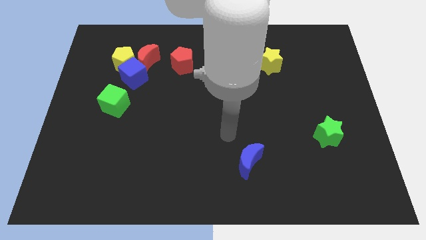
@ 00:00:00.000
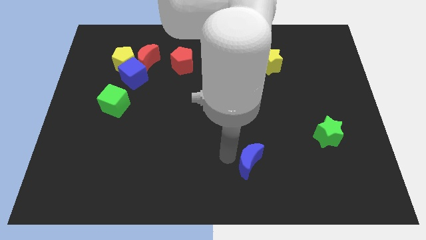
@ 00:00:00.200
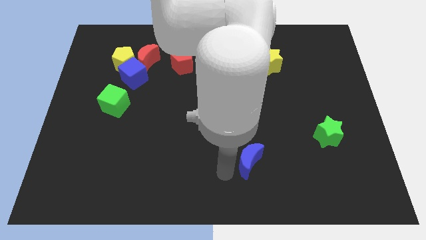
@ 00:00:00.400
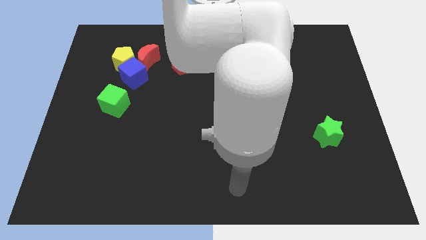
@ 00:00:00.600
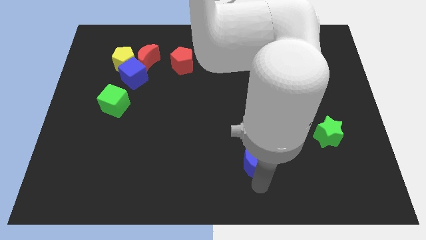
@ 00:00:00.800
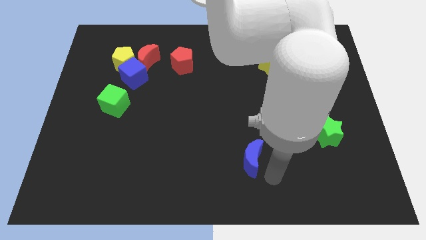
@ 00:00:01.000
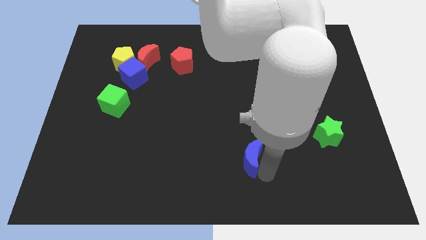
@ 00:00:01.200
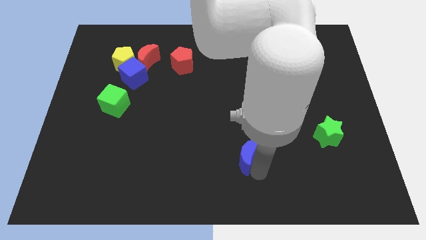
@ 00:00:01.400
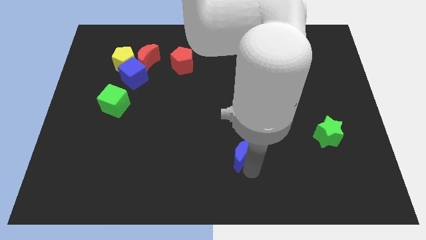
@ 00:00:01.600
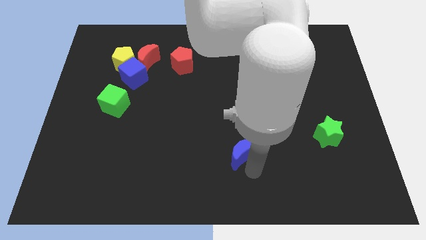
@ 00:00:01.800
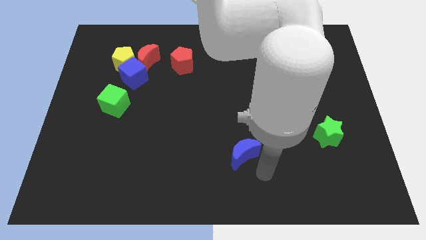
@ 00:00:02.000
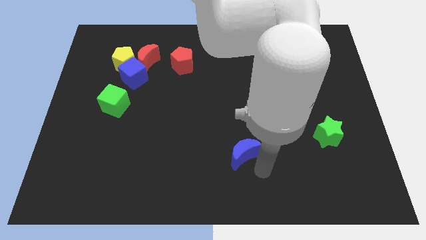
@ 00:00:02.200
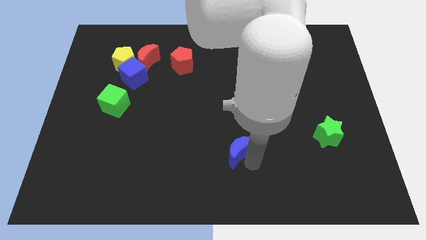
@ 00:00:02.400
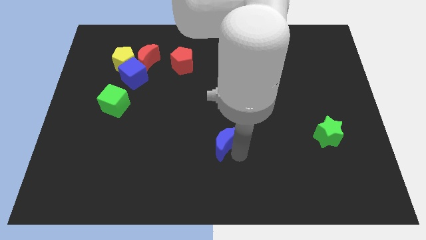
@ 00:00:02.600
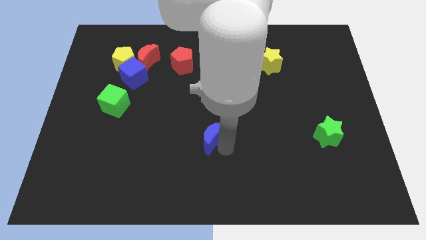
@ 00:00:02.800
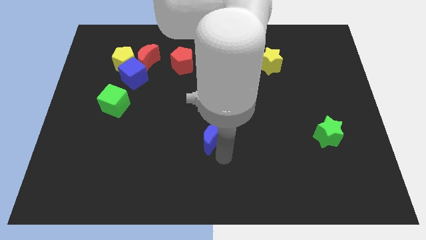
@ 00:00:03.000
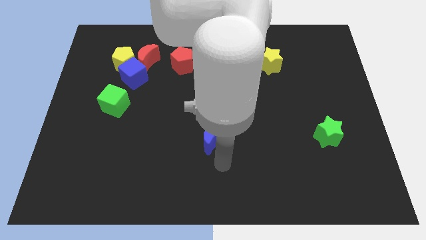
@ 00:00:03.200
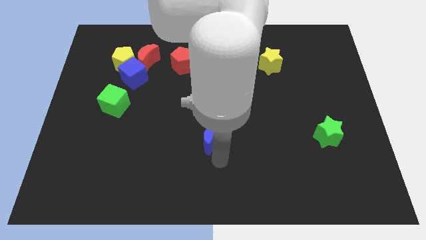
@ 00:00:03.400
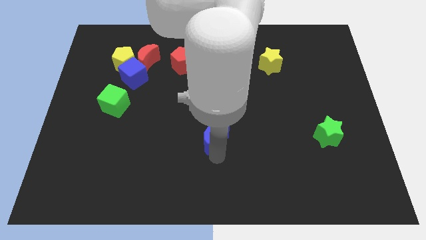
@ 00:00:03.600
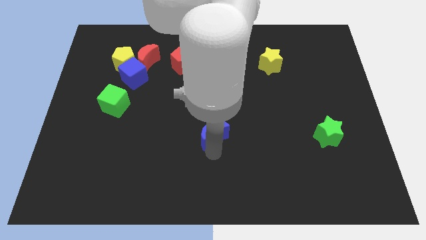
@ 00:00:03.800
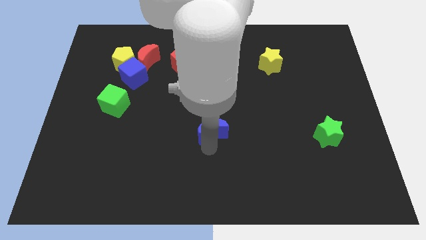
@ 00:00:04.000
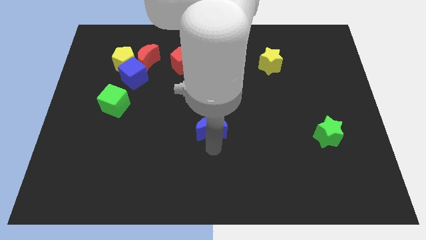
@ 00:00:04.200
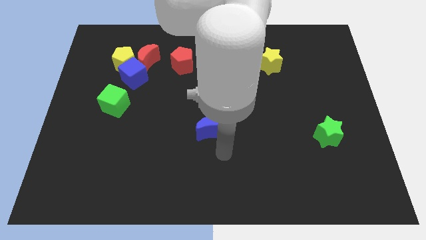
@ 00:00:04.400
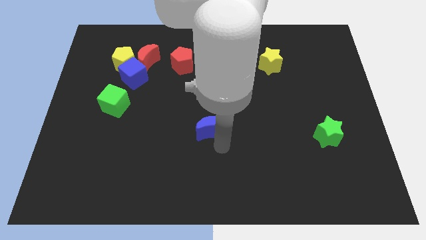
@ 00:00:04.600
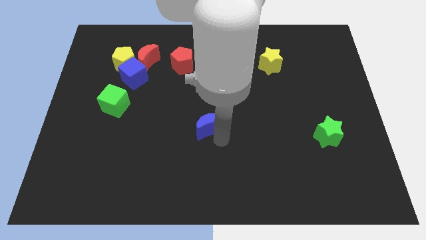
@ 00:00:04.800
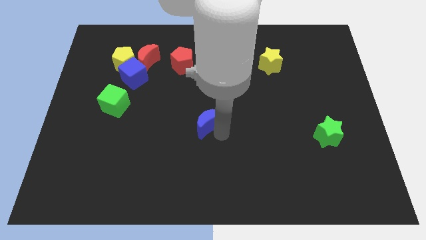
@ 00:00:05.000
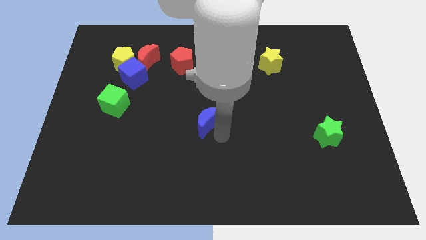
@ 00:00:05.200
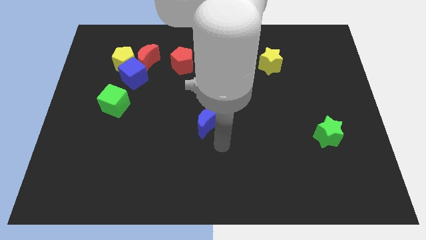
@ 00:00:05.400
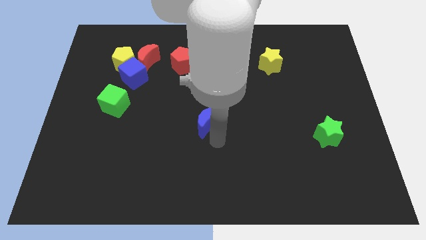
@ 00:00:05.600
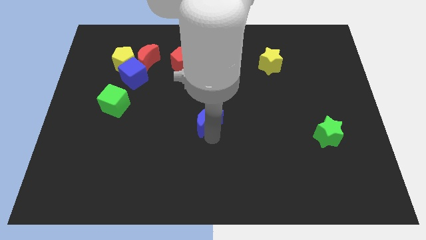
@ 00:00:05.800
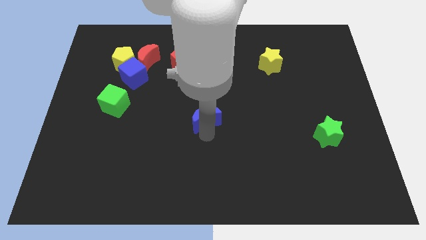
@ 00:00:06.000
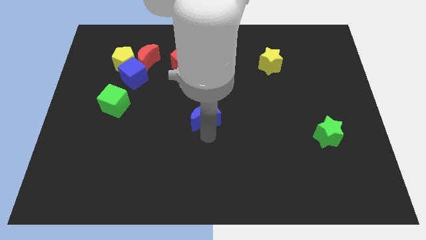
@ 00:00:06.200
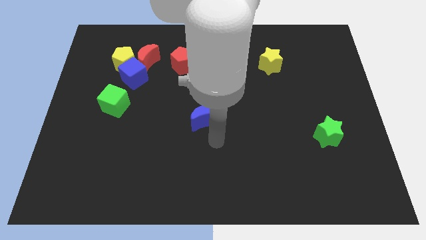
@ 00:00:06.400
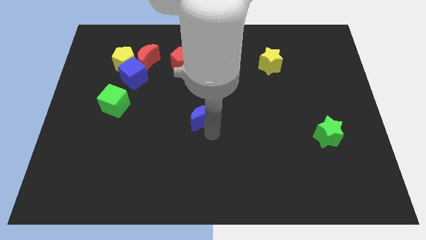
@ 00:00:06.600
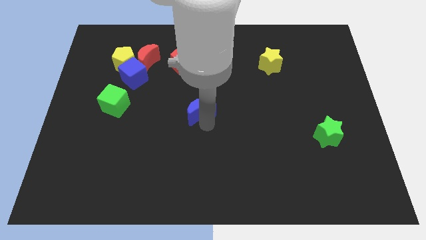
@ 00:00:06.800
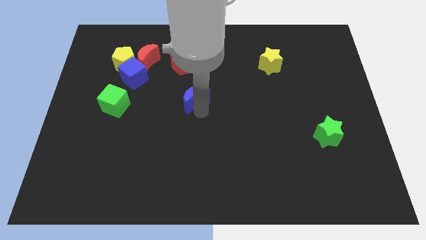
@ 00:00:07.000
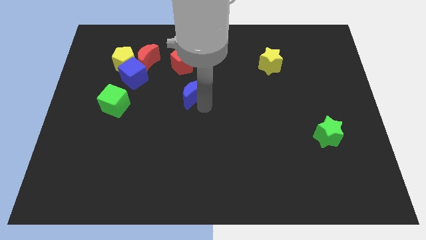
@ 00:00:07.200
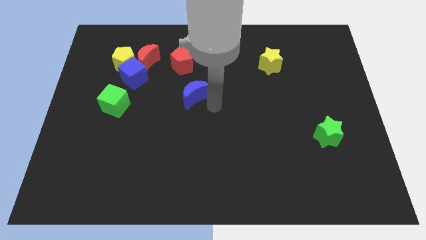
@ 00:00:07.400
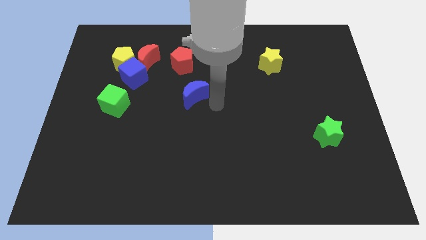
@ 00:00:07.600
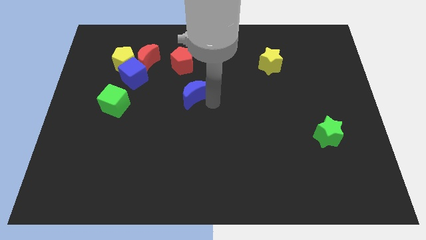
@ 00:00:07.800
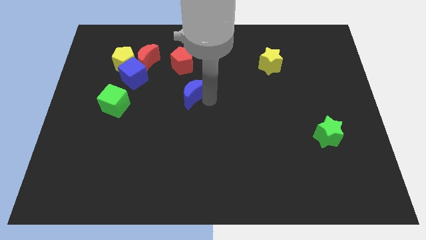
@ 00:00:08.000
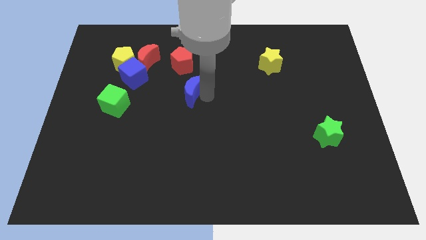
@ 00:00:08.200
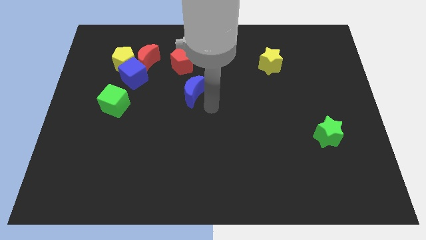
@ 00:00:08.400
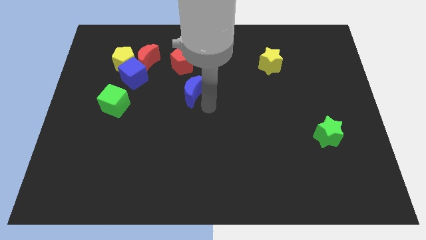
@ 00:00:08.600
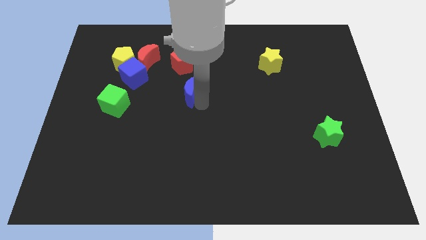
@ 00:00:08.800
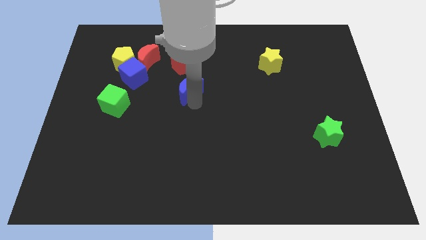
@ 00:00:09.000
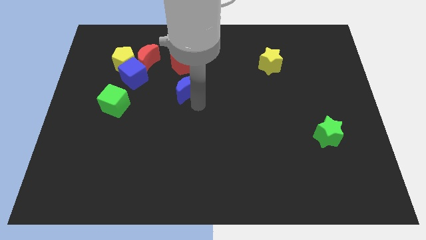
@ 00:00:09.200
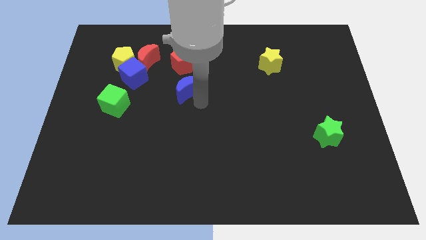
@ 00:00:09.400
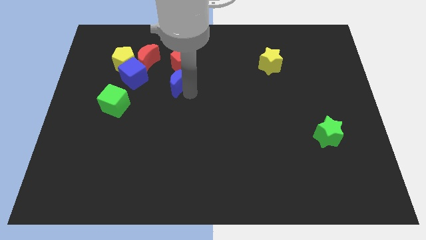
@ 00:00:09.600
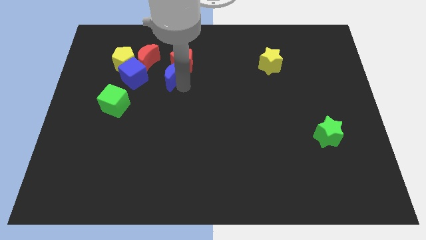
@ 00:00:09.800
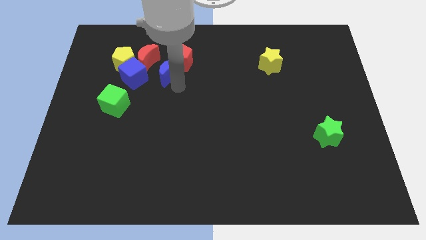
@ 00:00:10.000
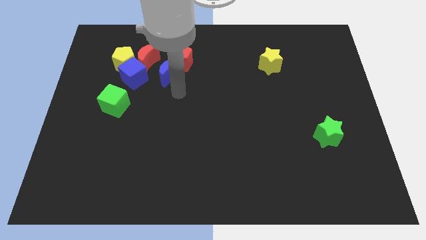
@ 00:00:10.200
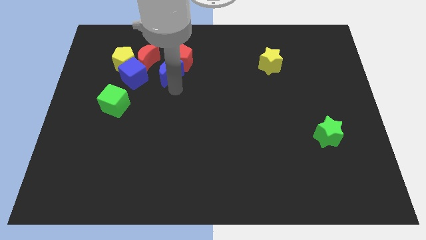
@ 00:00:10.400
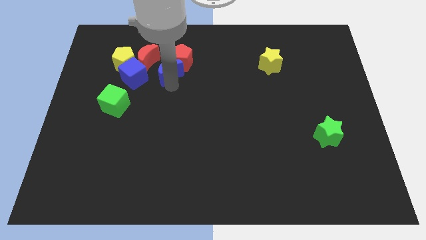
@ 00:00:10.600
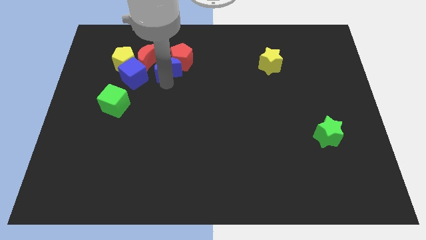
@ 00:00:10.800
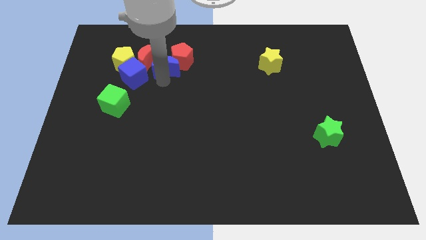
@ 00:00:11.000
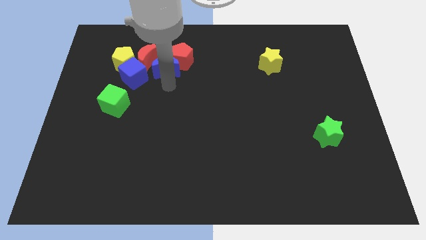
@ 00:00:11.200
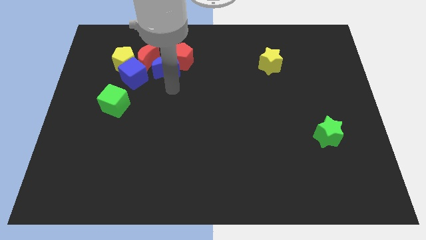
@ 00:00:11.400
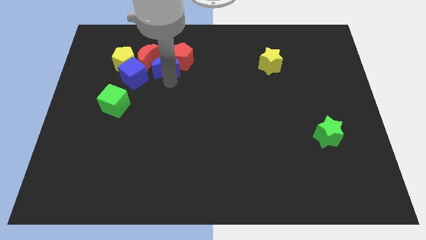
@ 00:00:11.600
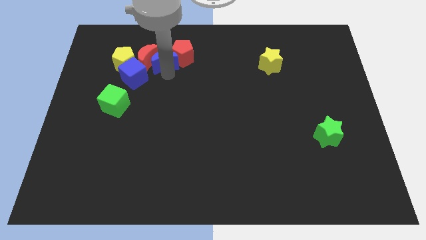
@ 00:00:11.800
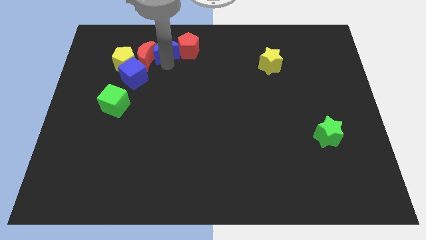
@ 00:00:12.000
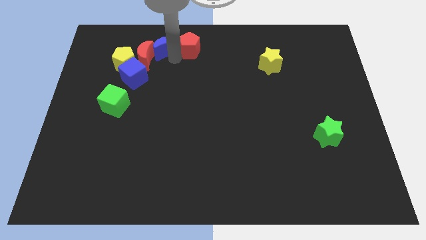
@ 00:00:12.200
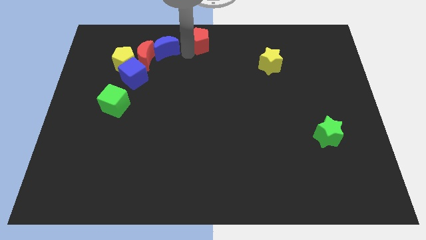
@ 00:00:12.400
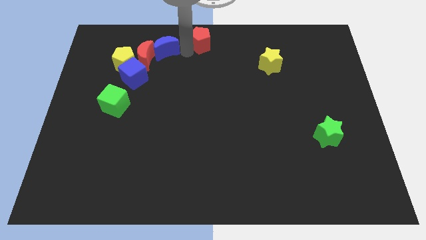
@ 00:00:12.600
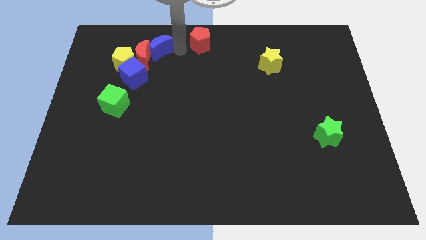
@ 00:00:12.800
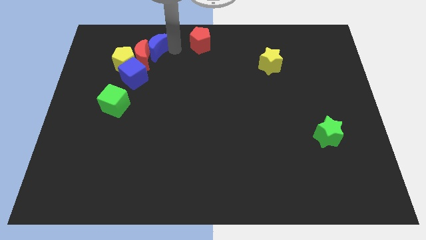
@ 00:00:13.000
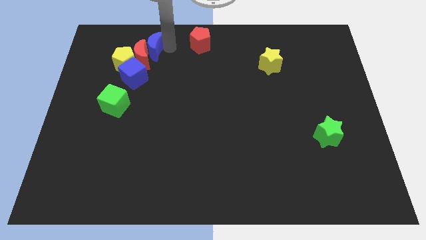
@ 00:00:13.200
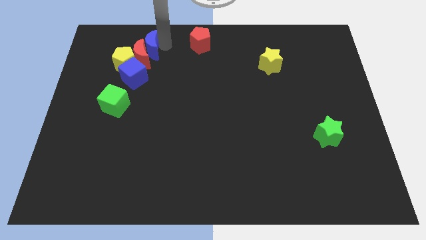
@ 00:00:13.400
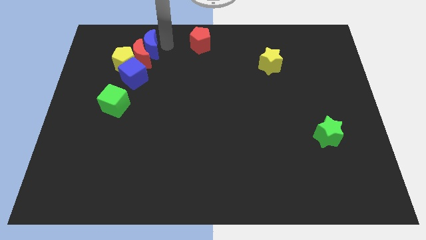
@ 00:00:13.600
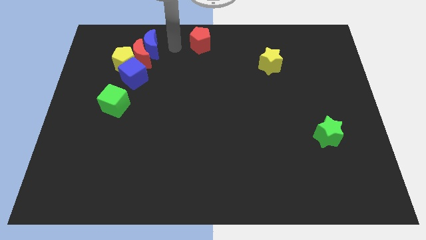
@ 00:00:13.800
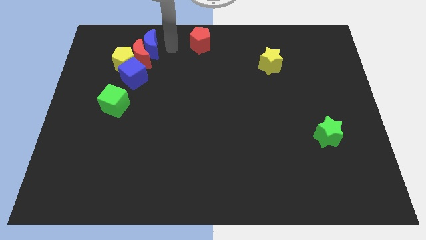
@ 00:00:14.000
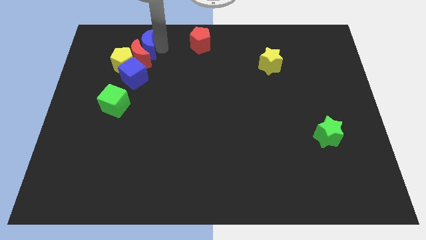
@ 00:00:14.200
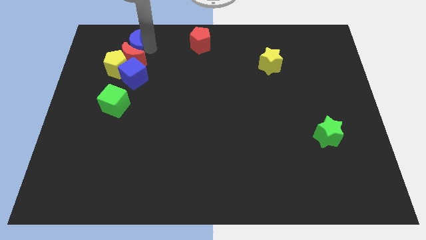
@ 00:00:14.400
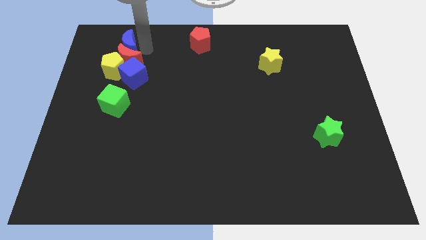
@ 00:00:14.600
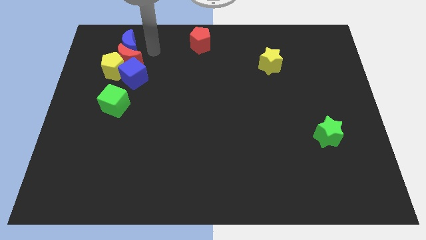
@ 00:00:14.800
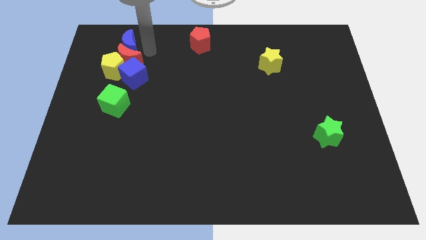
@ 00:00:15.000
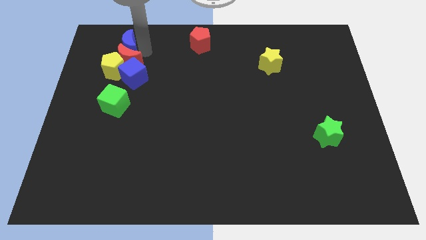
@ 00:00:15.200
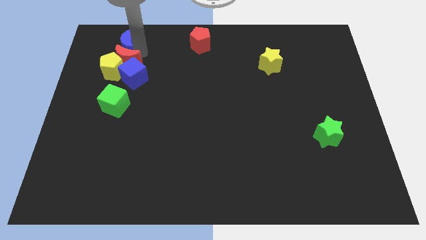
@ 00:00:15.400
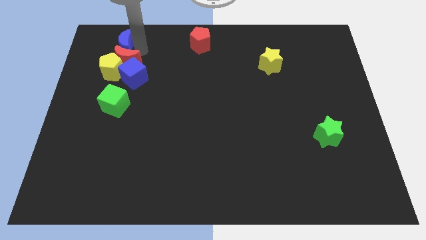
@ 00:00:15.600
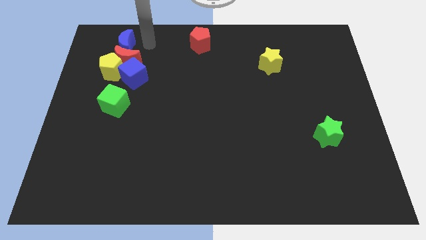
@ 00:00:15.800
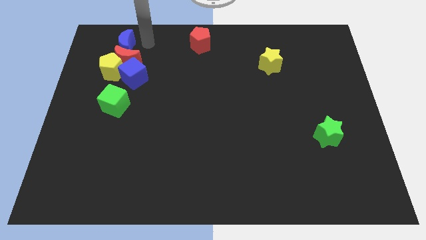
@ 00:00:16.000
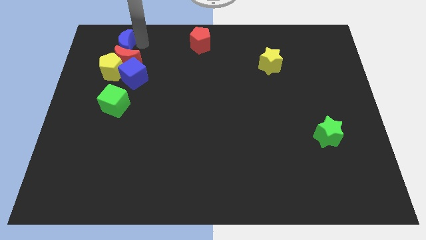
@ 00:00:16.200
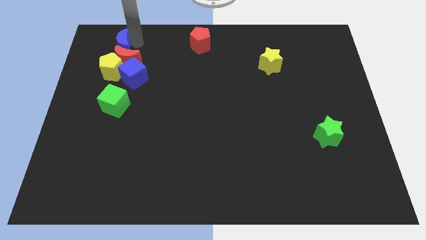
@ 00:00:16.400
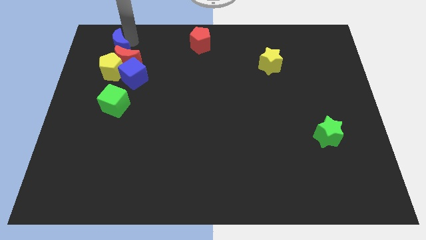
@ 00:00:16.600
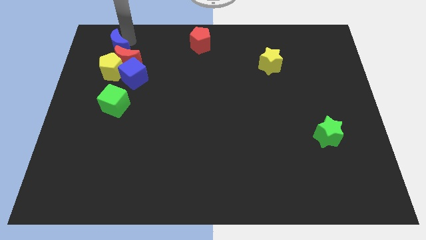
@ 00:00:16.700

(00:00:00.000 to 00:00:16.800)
move the blue moon diagonally up and to the left of the blue cube
